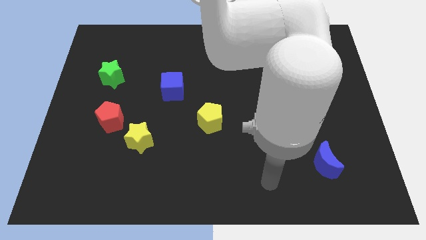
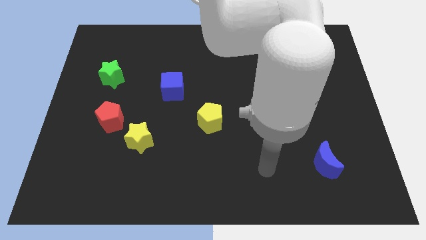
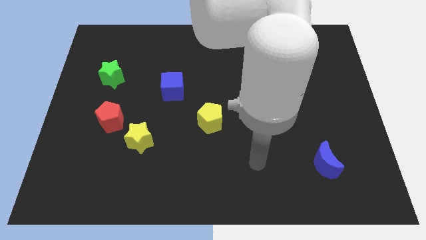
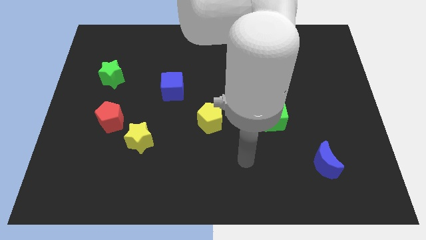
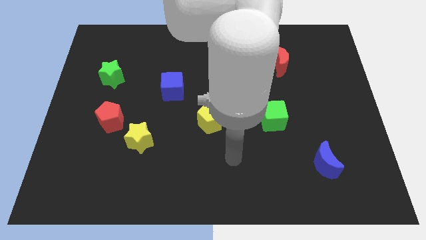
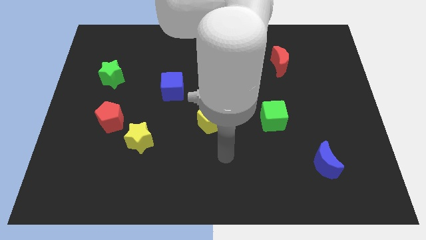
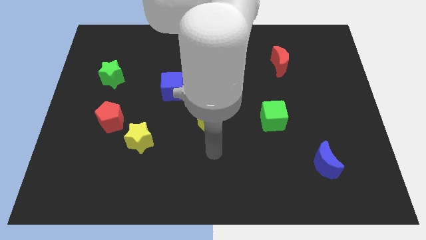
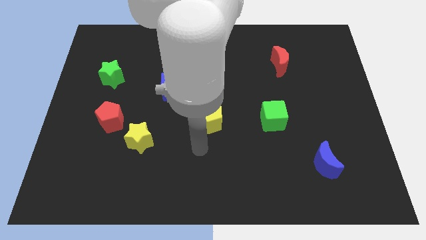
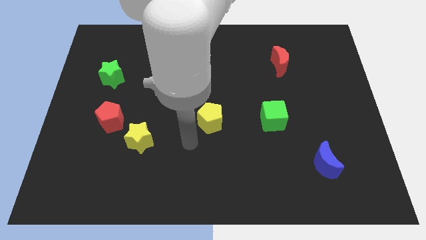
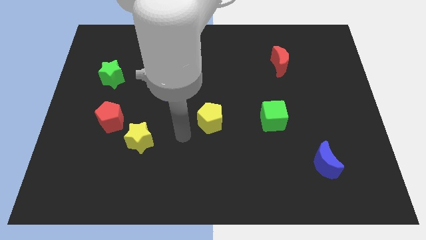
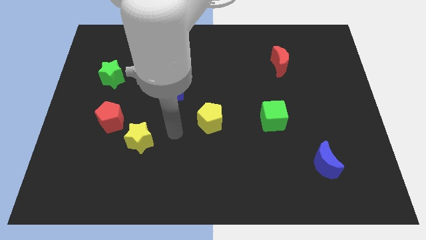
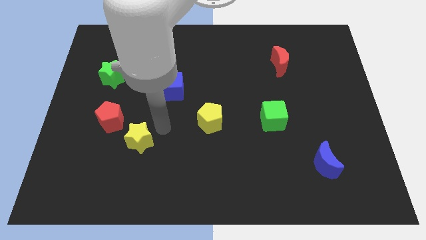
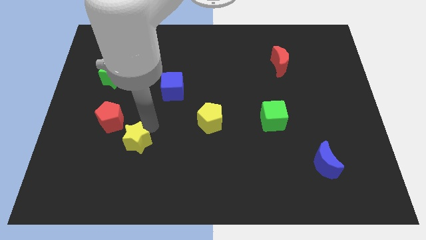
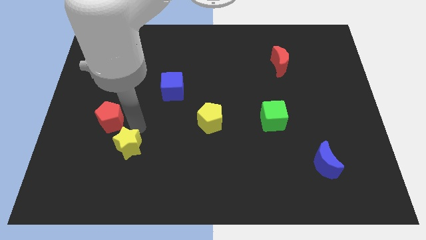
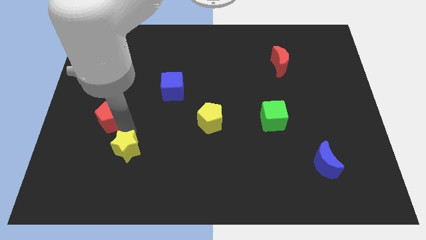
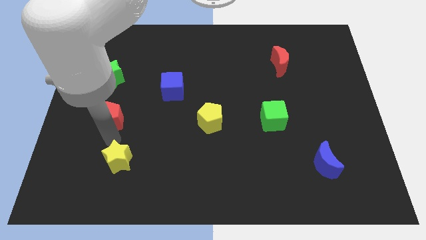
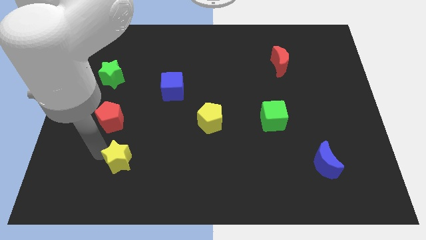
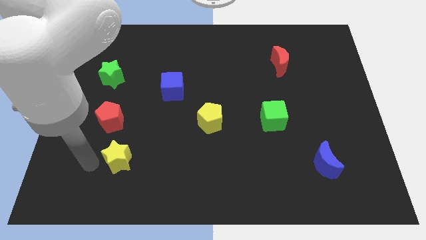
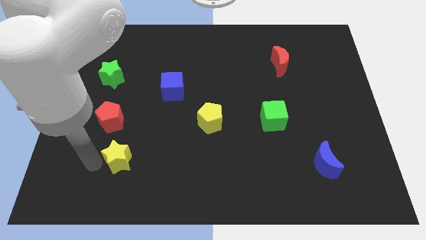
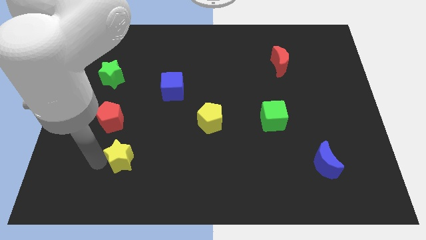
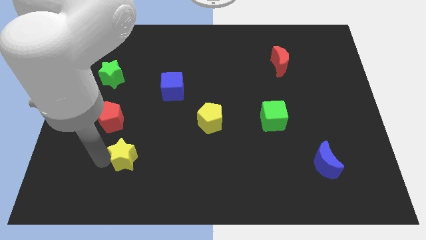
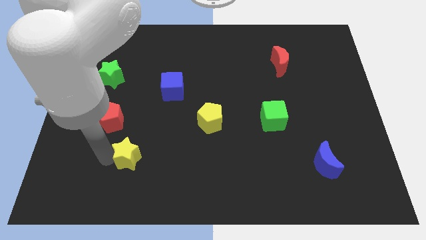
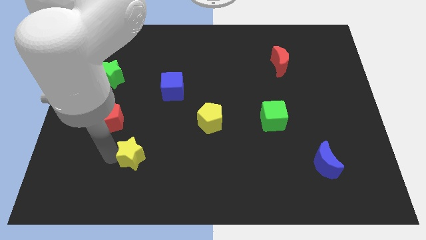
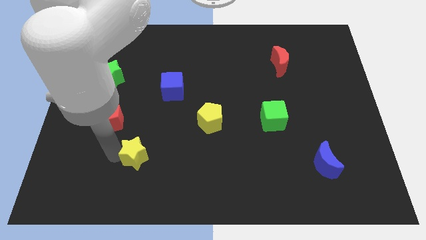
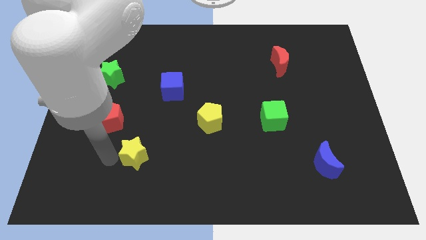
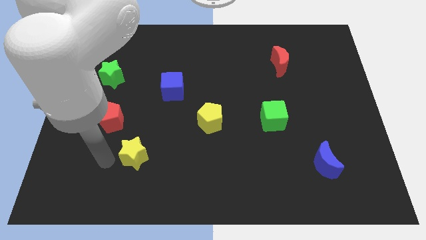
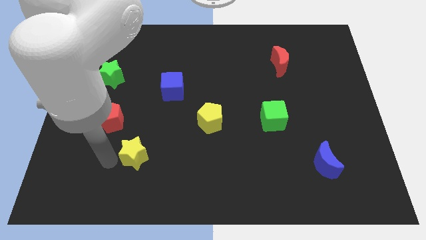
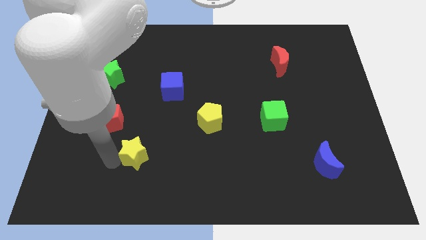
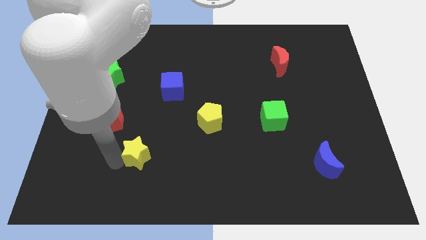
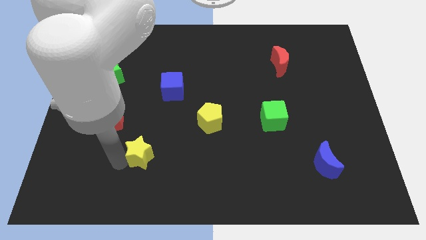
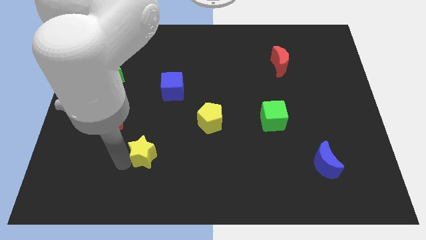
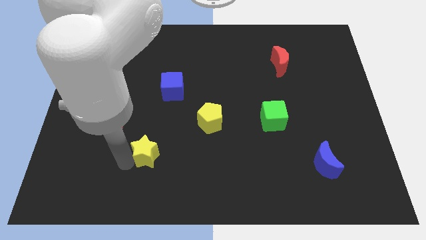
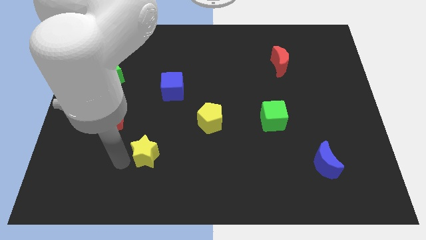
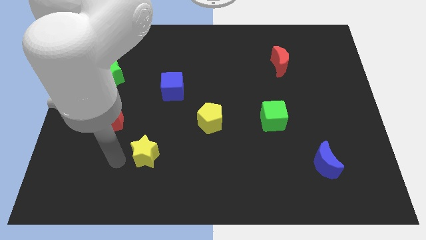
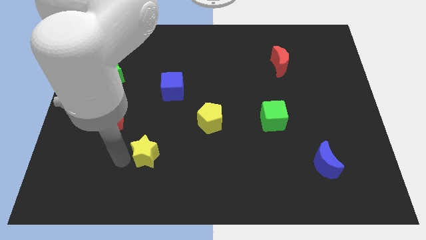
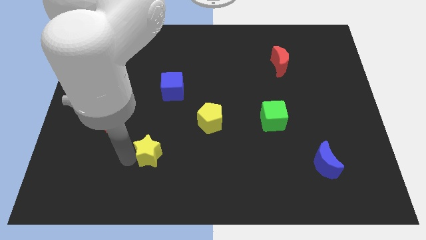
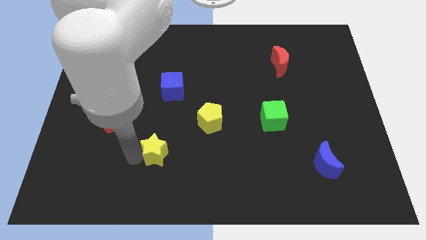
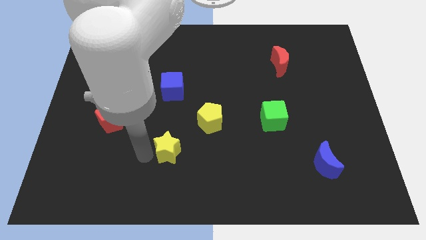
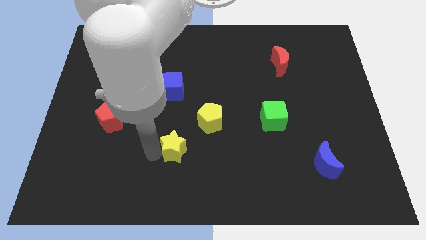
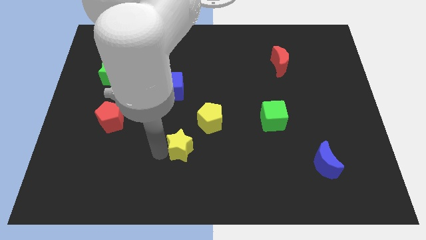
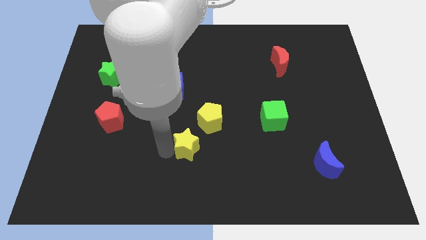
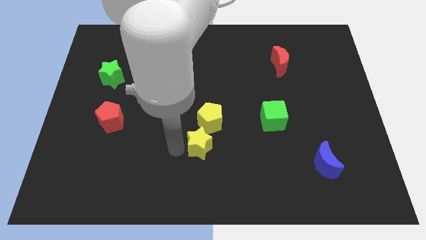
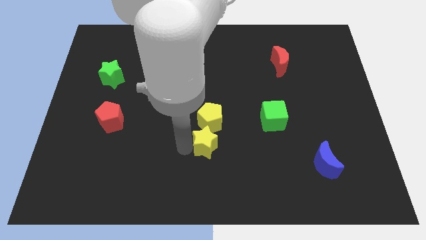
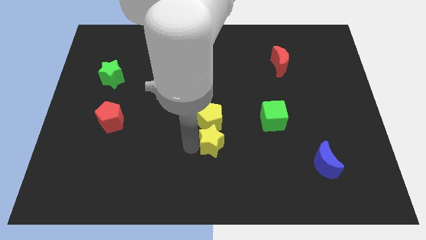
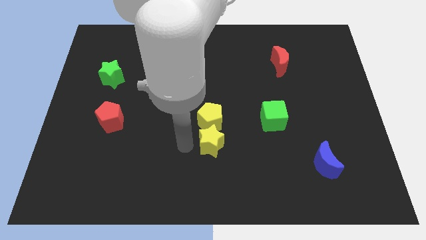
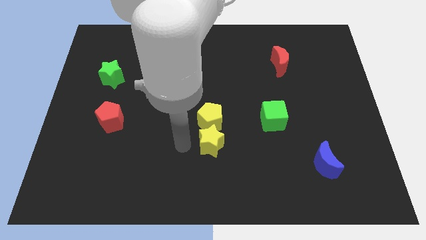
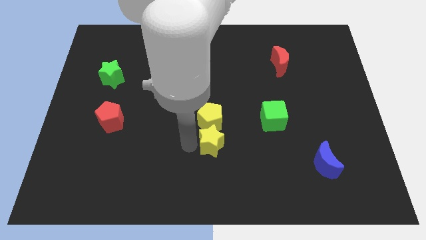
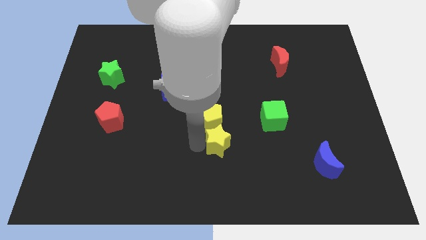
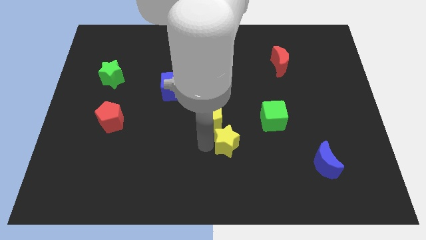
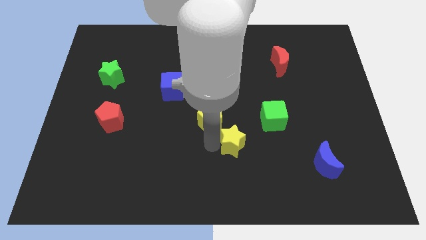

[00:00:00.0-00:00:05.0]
slide the yellow star right

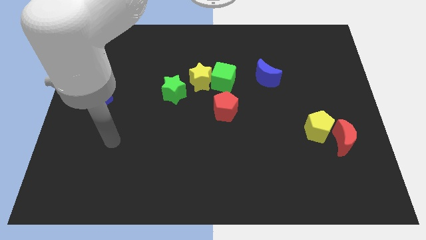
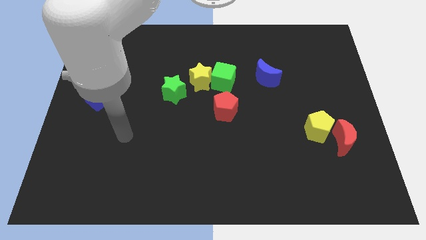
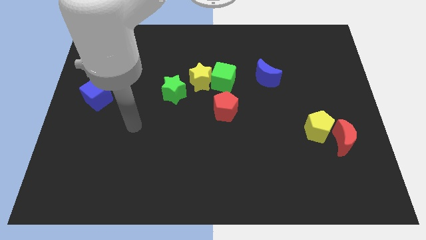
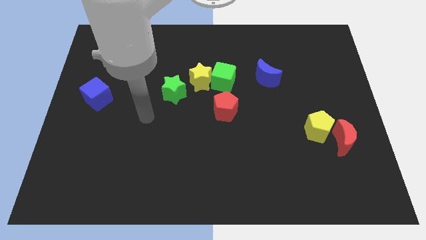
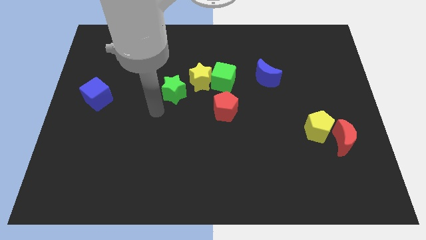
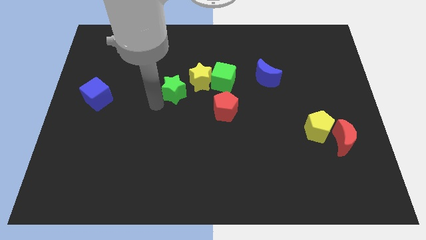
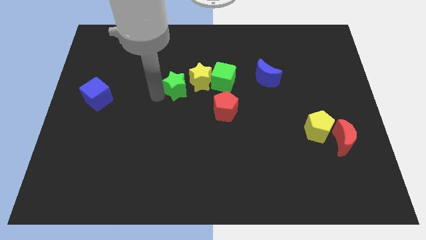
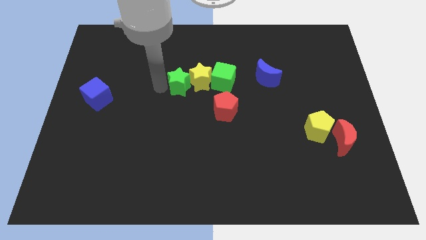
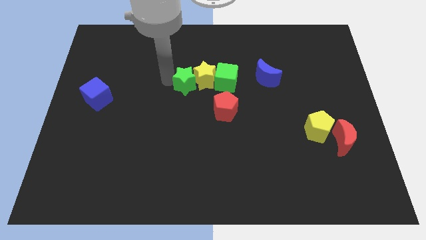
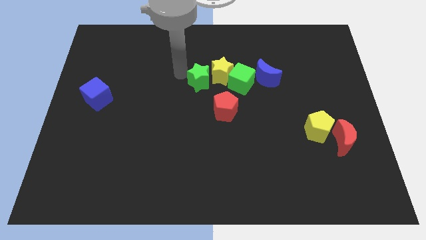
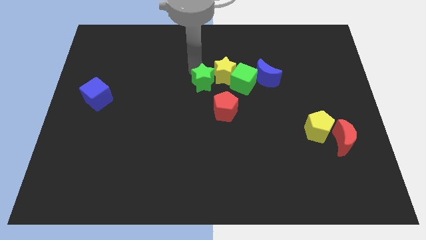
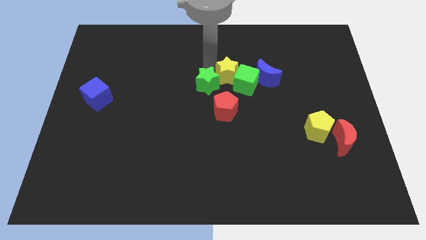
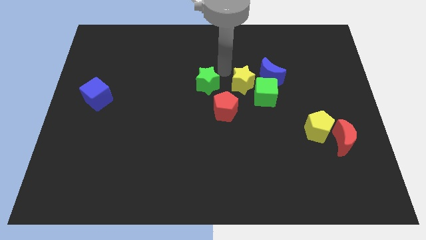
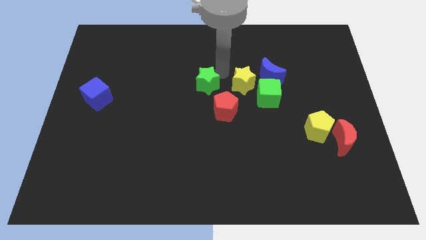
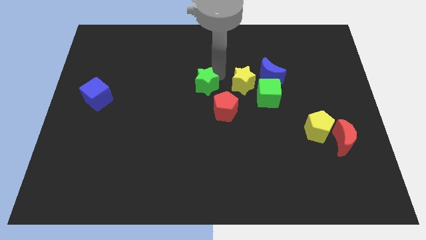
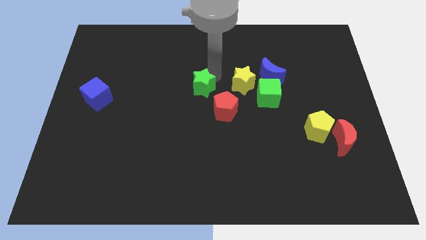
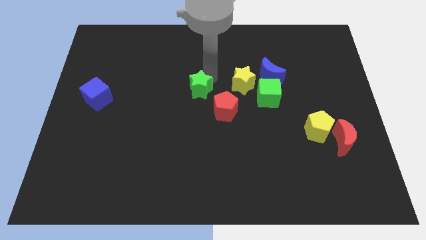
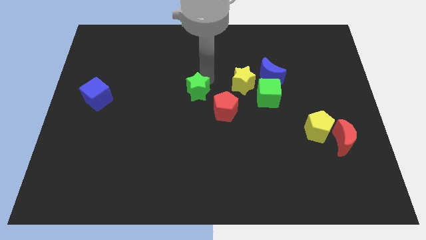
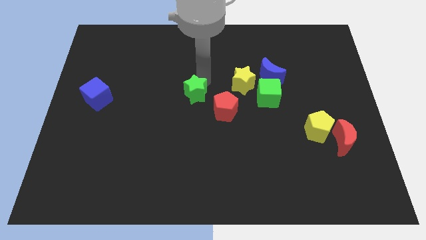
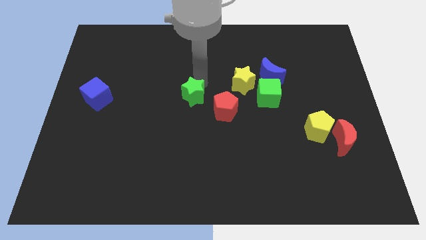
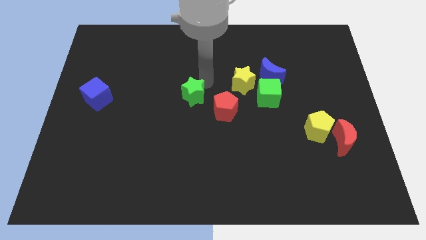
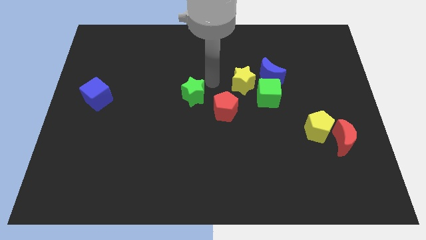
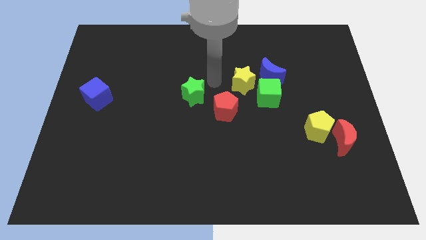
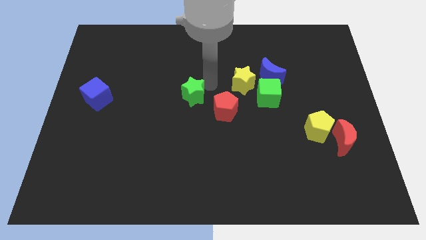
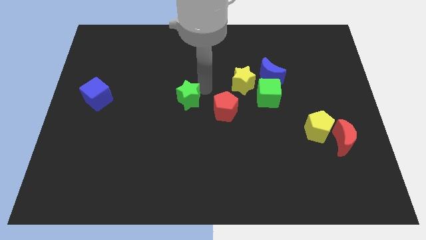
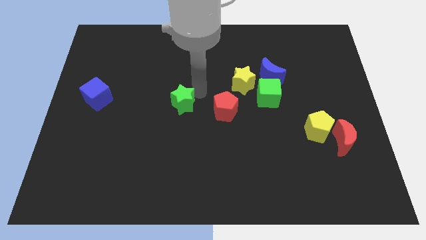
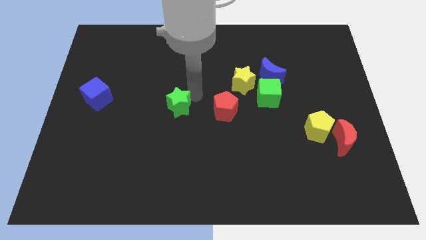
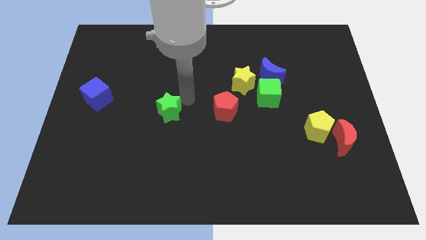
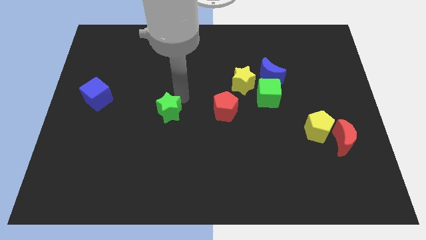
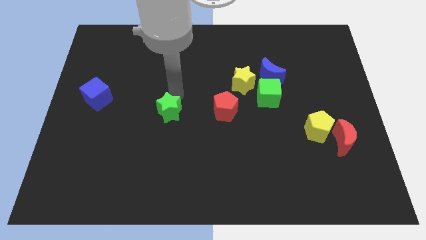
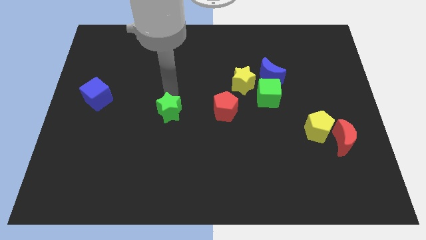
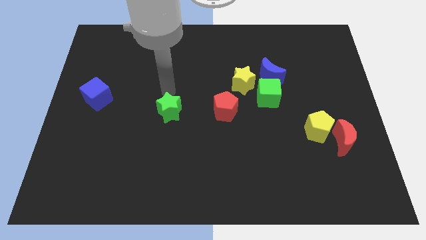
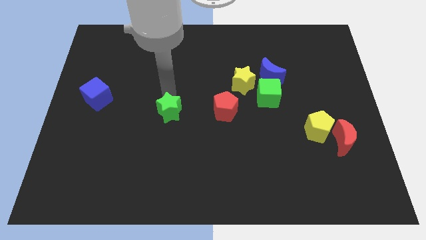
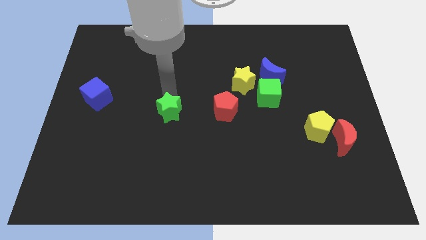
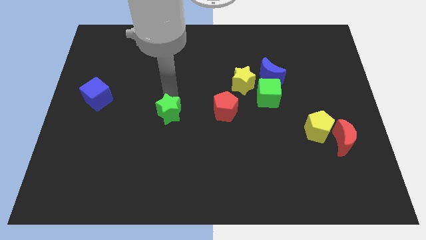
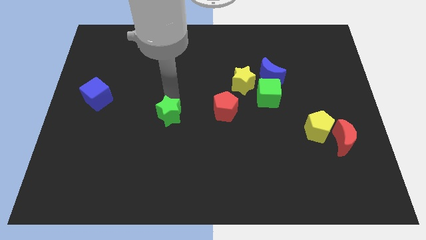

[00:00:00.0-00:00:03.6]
slide the green star downwards slightly
